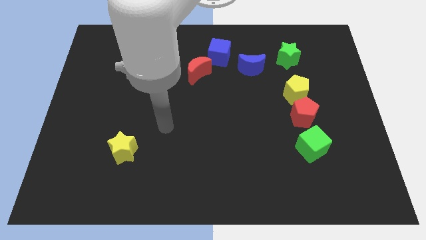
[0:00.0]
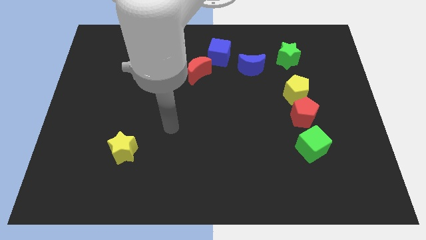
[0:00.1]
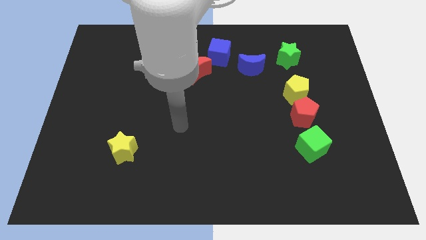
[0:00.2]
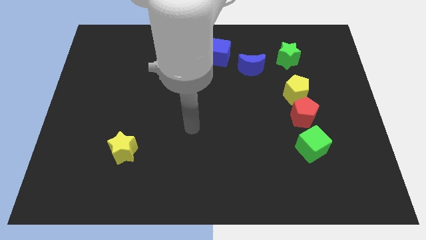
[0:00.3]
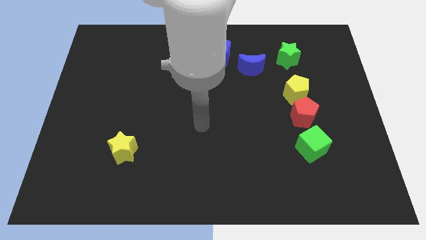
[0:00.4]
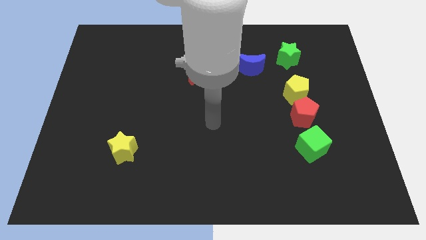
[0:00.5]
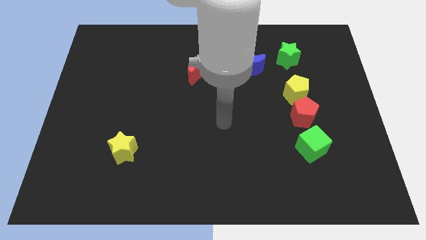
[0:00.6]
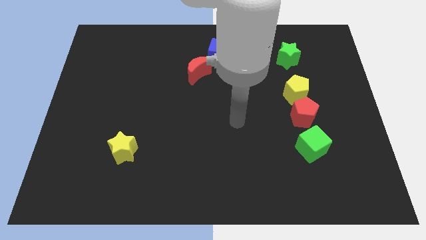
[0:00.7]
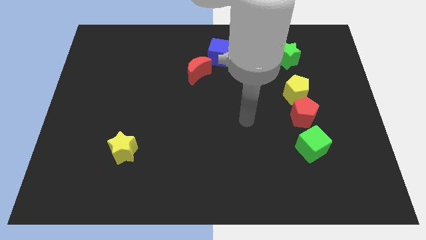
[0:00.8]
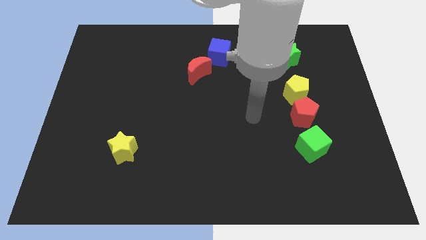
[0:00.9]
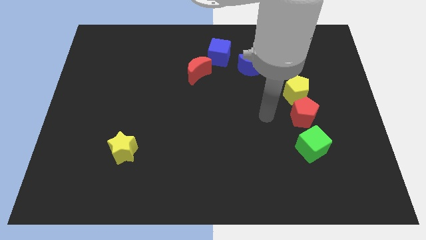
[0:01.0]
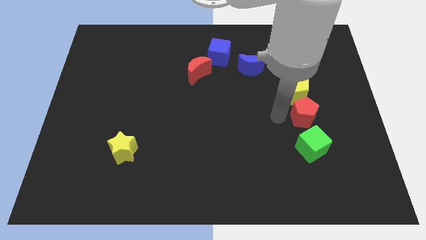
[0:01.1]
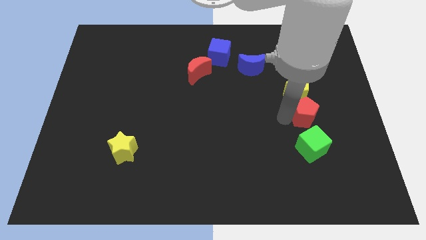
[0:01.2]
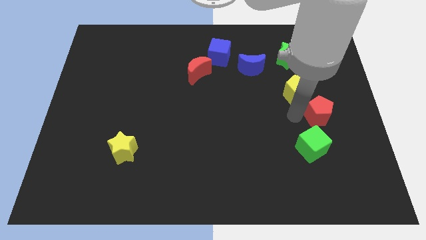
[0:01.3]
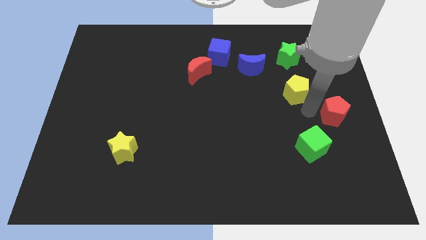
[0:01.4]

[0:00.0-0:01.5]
separate the yellow pentagon from the red pentagon

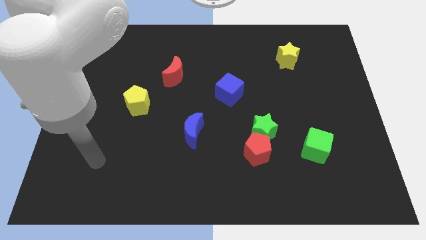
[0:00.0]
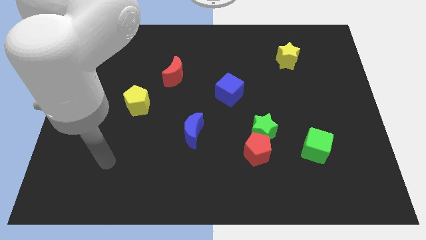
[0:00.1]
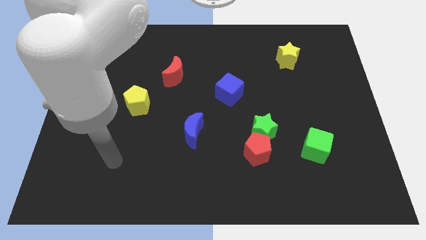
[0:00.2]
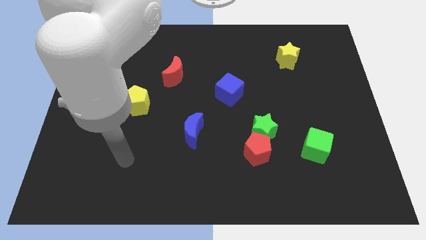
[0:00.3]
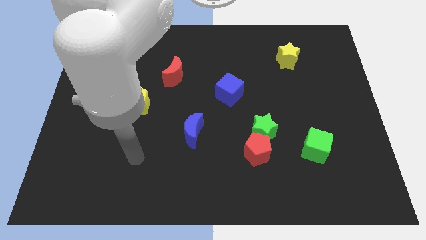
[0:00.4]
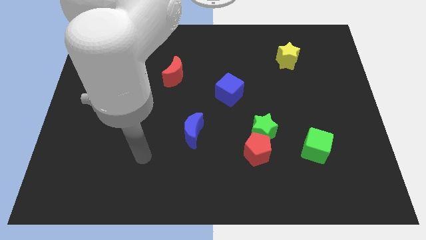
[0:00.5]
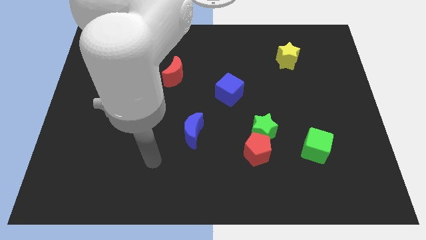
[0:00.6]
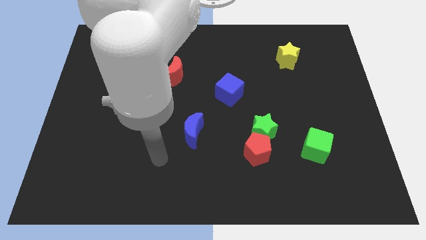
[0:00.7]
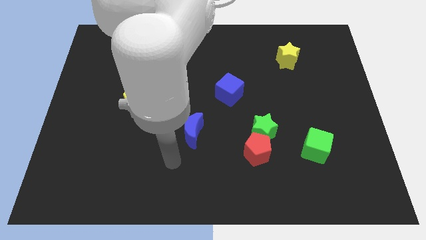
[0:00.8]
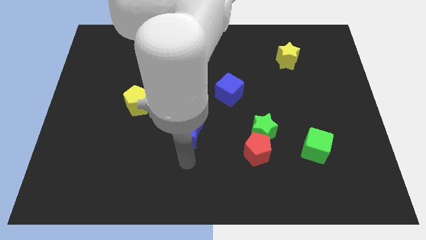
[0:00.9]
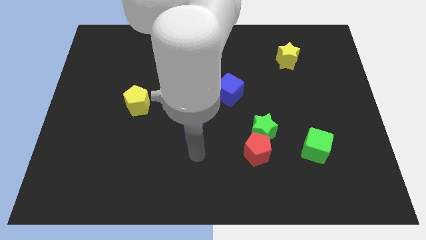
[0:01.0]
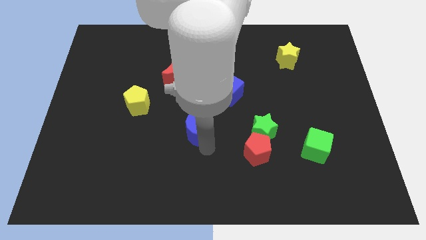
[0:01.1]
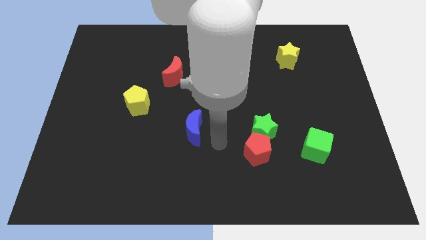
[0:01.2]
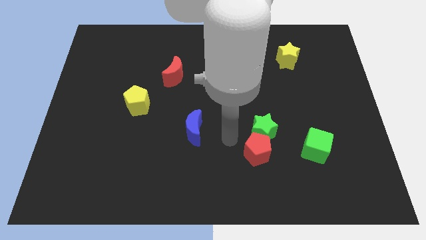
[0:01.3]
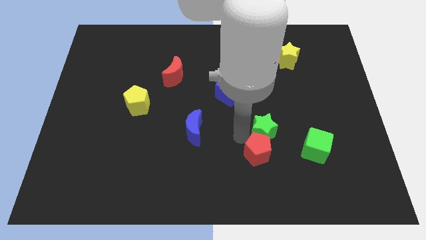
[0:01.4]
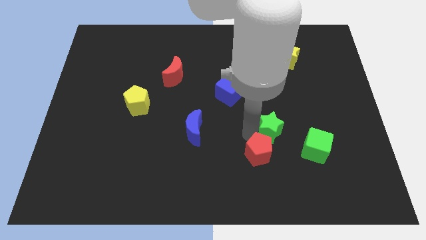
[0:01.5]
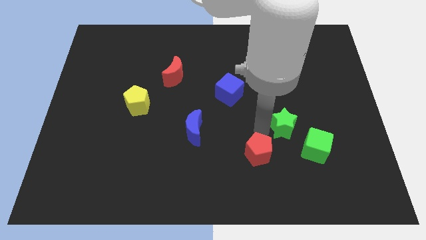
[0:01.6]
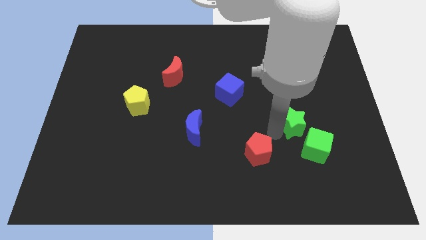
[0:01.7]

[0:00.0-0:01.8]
move the red pentagon away from the green star

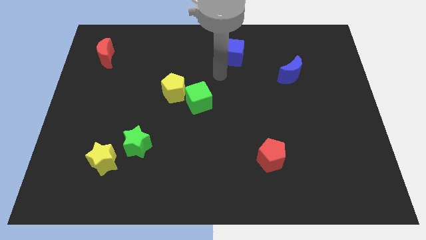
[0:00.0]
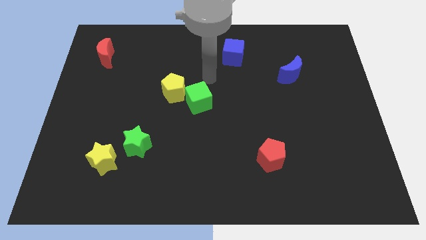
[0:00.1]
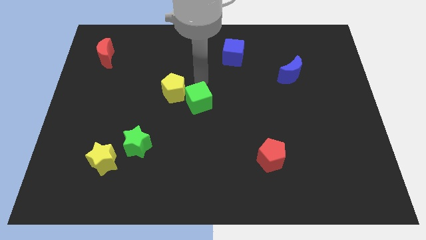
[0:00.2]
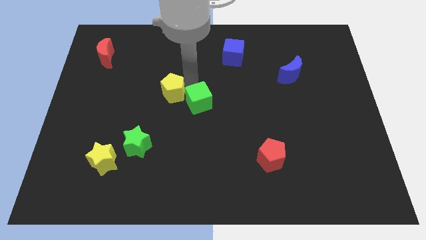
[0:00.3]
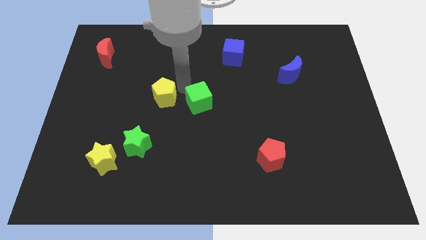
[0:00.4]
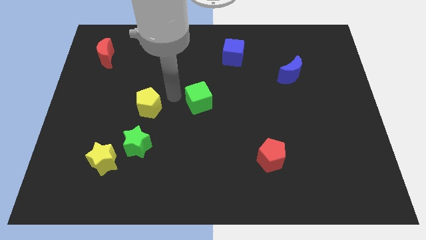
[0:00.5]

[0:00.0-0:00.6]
pull the green cube apart from the yellow pentagon

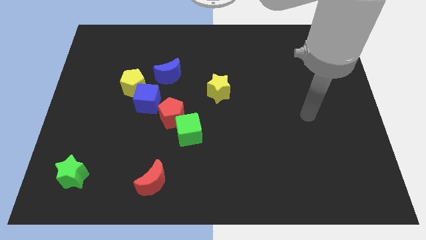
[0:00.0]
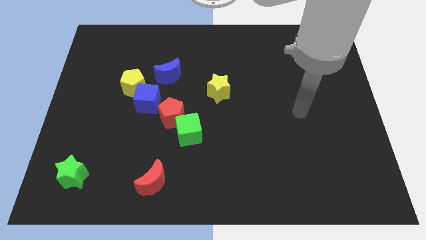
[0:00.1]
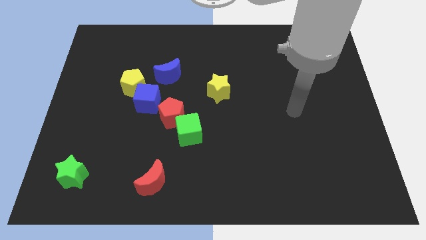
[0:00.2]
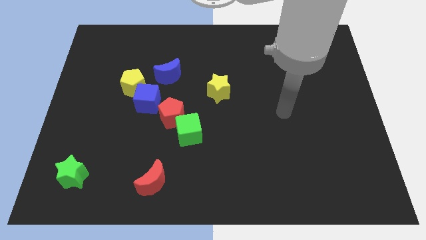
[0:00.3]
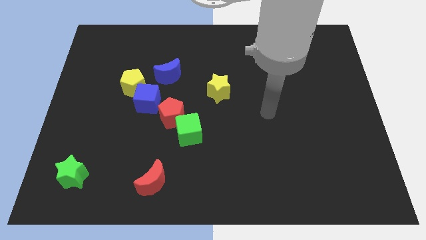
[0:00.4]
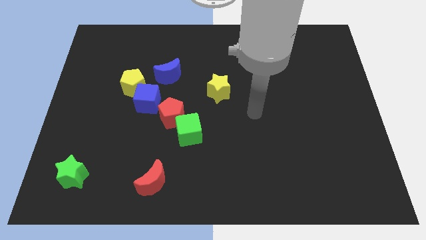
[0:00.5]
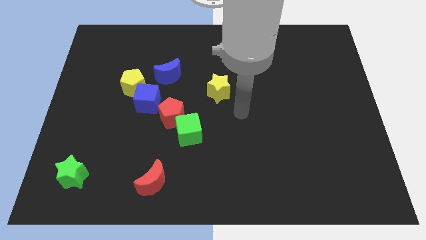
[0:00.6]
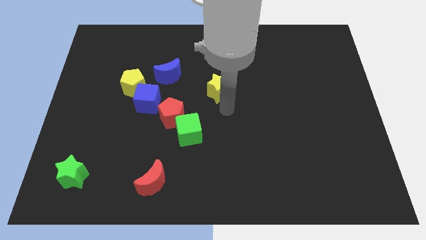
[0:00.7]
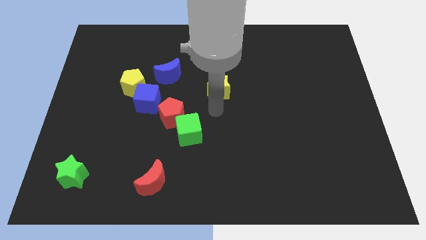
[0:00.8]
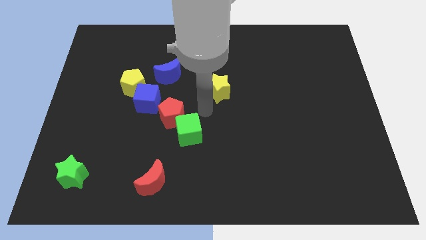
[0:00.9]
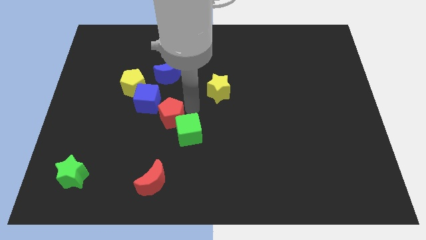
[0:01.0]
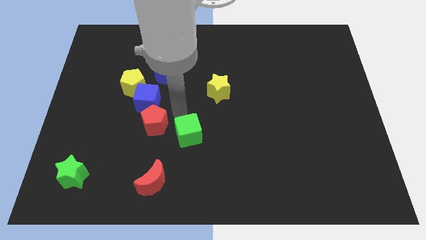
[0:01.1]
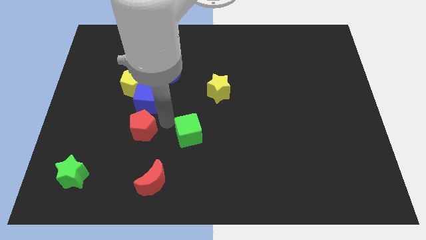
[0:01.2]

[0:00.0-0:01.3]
pull the green cube apart from the red pentagon

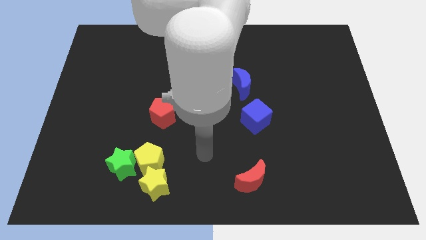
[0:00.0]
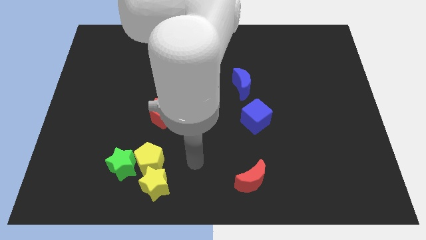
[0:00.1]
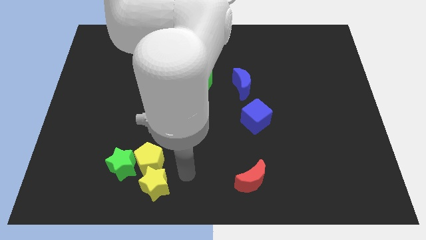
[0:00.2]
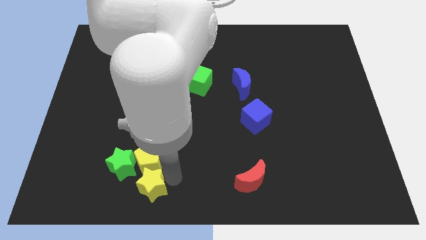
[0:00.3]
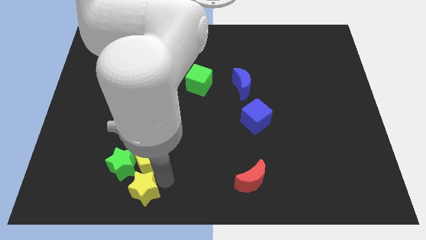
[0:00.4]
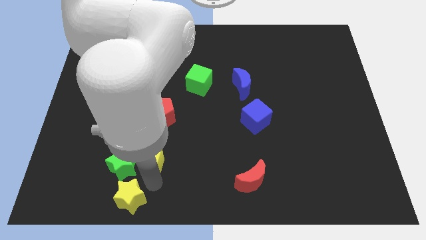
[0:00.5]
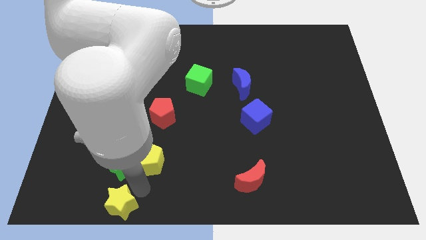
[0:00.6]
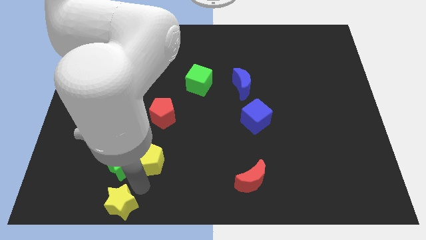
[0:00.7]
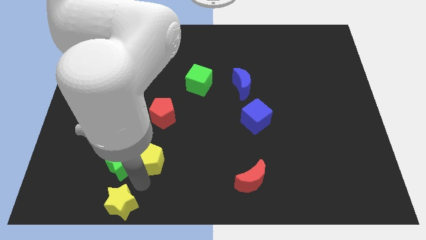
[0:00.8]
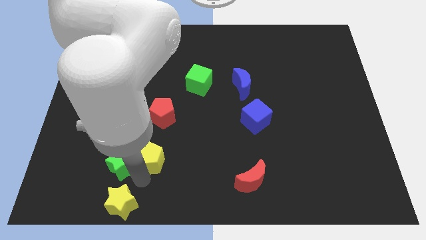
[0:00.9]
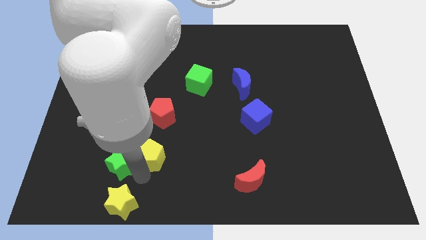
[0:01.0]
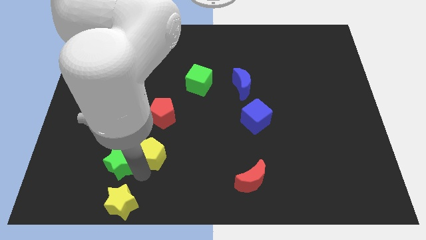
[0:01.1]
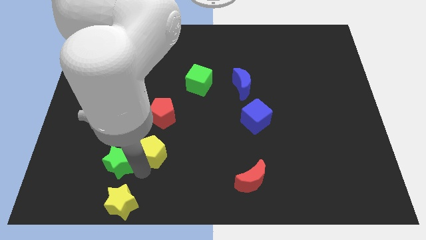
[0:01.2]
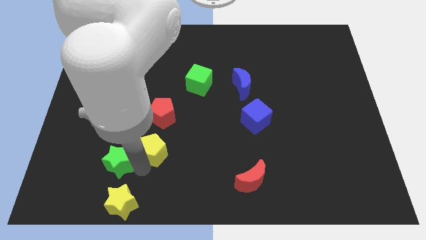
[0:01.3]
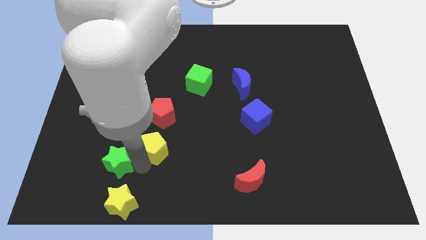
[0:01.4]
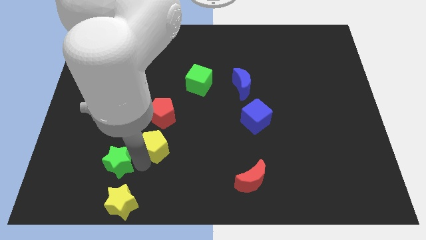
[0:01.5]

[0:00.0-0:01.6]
separate the yellow pentagon from the yellow star and green star

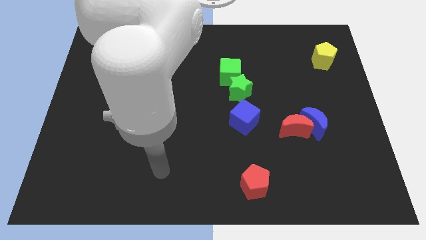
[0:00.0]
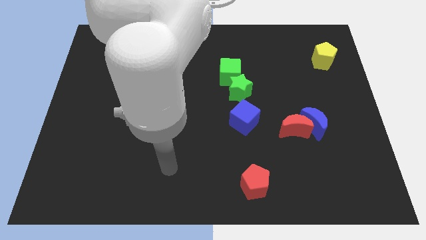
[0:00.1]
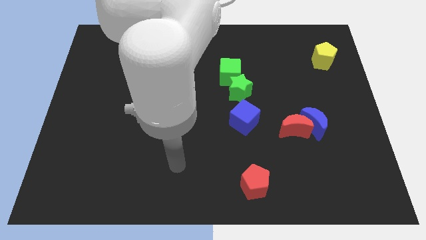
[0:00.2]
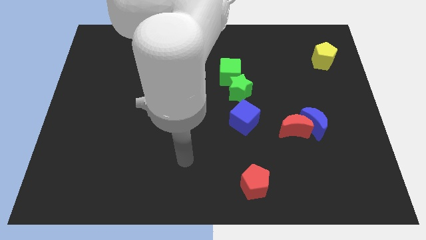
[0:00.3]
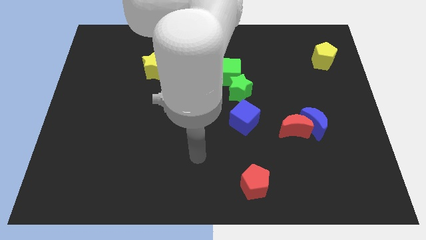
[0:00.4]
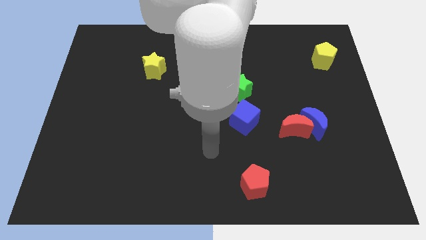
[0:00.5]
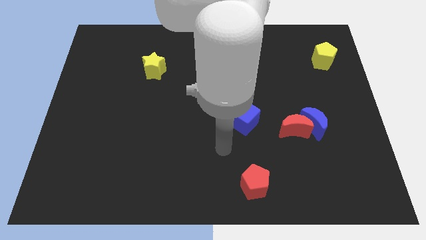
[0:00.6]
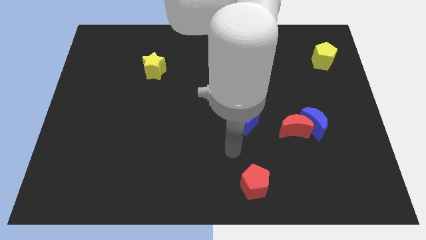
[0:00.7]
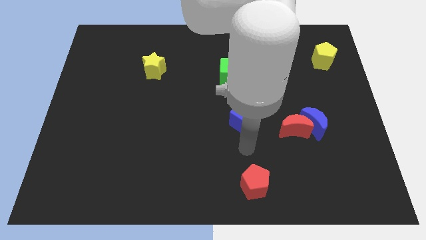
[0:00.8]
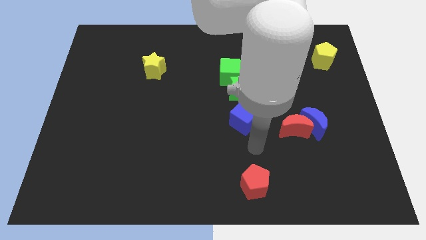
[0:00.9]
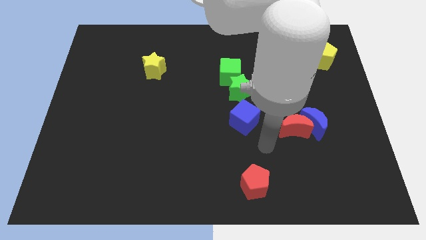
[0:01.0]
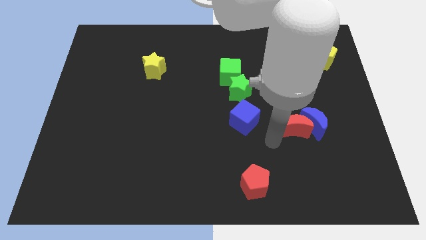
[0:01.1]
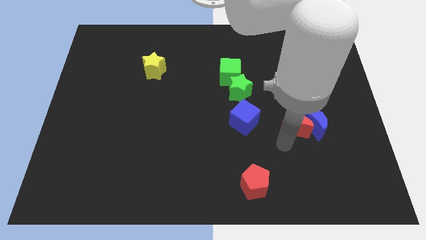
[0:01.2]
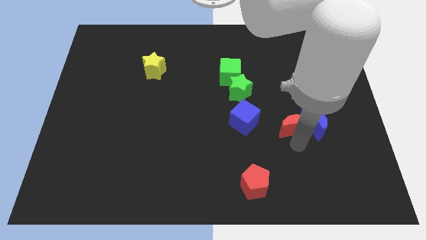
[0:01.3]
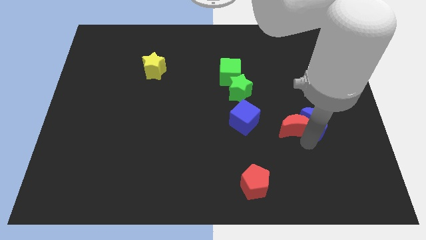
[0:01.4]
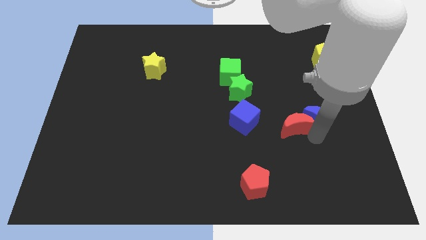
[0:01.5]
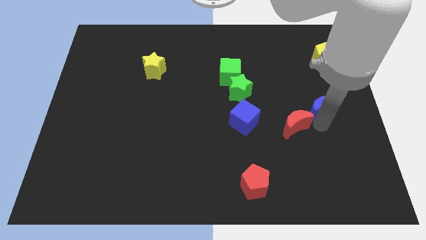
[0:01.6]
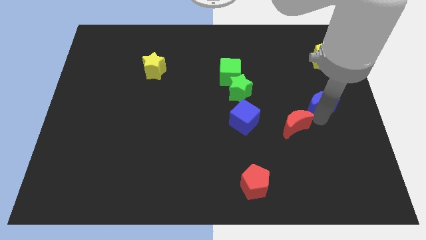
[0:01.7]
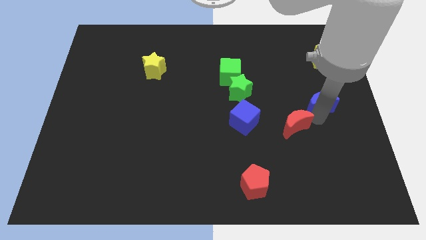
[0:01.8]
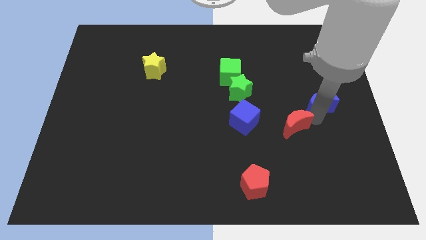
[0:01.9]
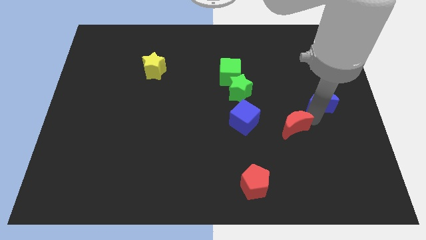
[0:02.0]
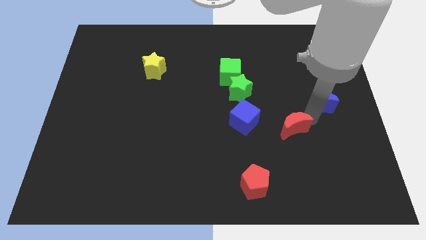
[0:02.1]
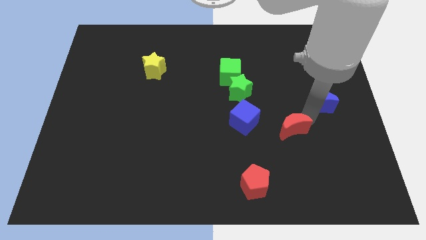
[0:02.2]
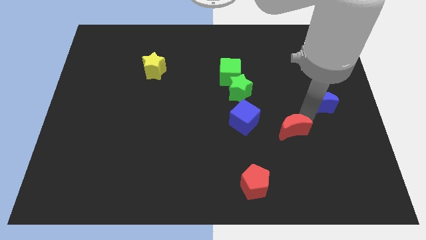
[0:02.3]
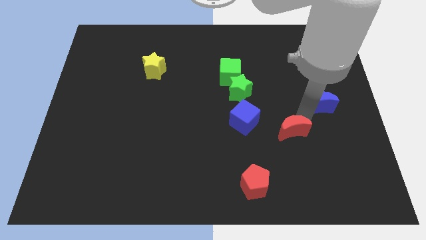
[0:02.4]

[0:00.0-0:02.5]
separate the red moon from the blue moon
